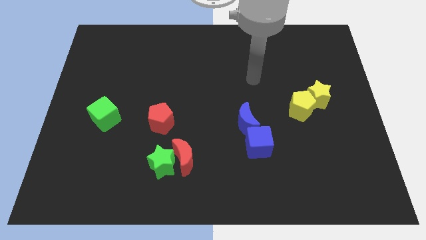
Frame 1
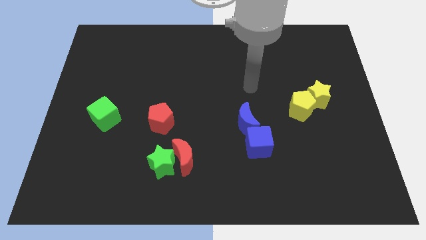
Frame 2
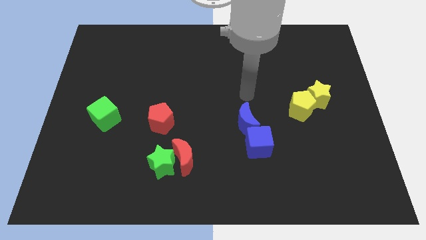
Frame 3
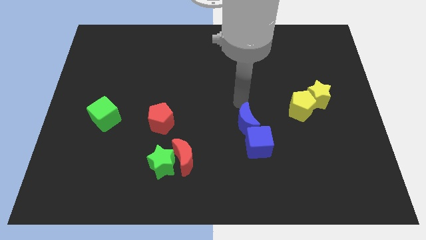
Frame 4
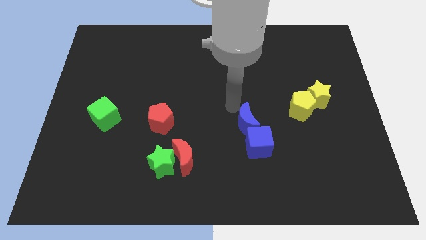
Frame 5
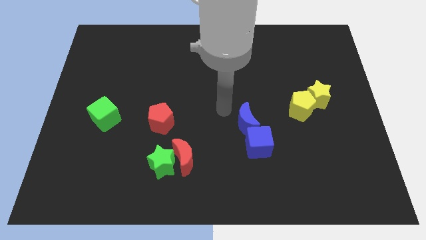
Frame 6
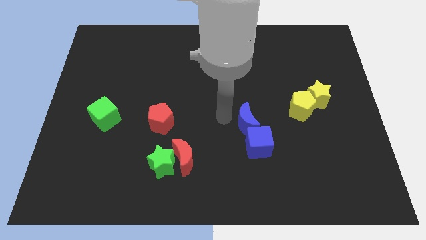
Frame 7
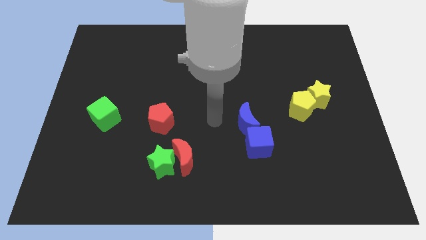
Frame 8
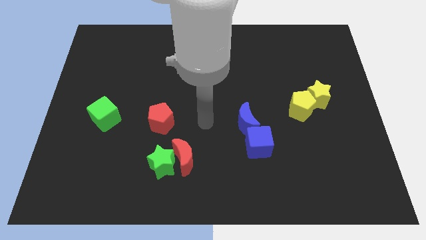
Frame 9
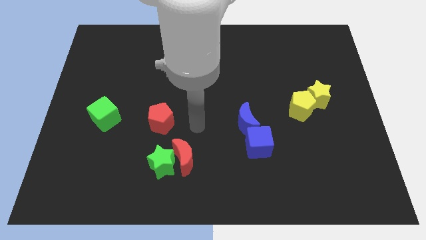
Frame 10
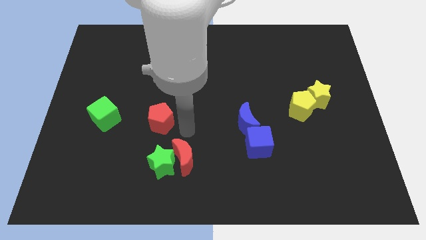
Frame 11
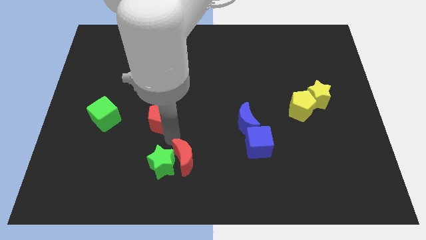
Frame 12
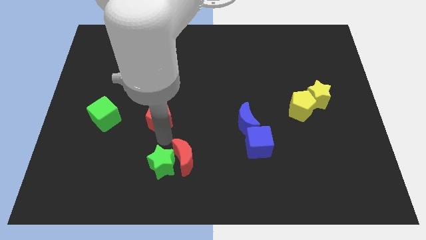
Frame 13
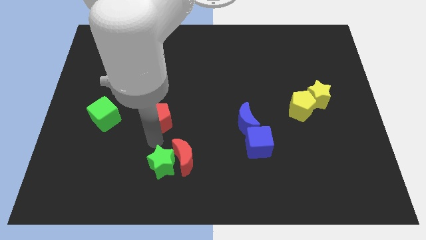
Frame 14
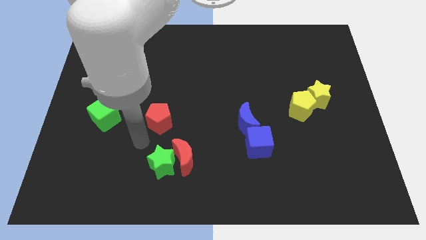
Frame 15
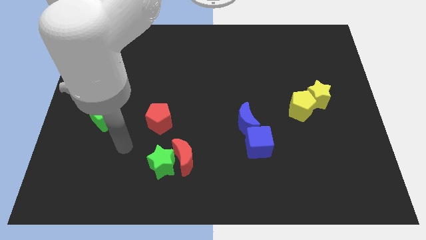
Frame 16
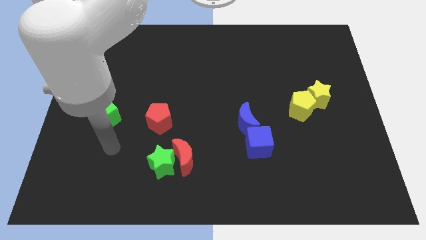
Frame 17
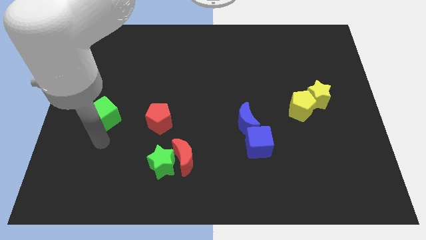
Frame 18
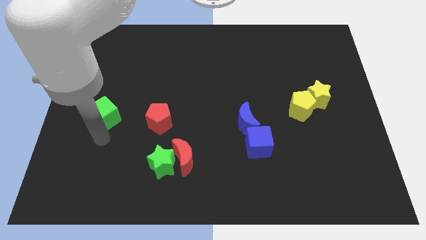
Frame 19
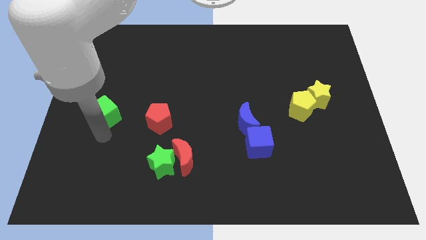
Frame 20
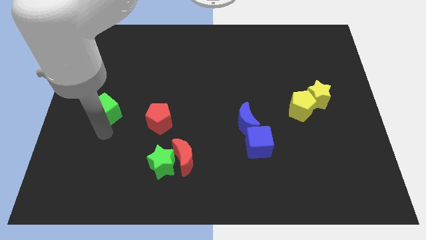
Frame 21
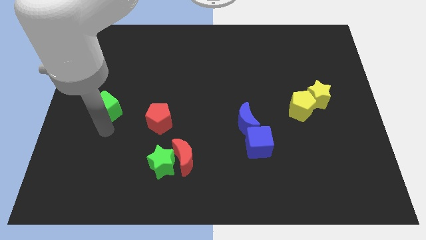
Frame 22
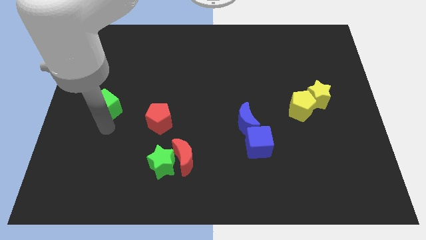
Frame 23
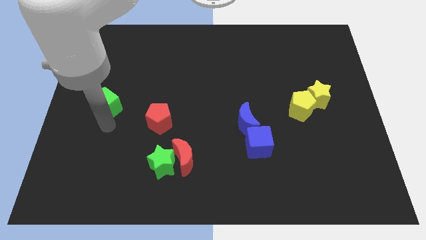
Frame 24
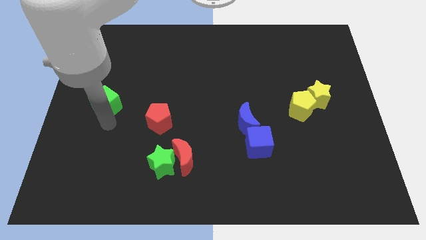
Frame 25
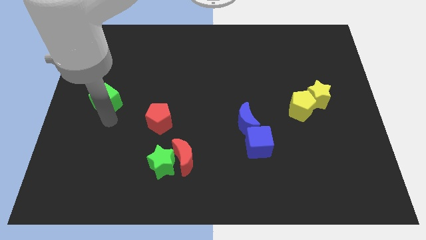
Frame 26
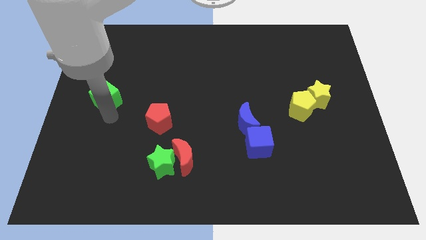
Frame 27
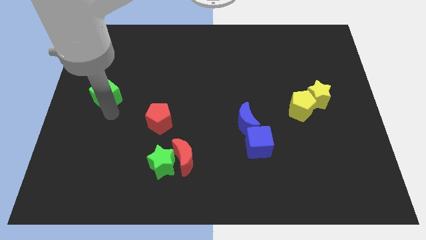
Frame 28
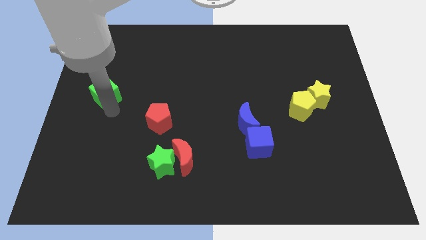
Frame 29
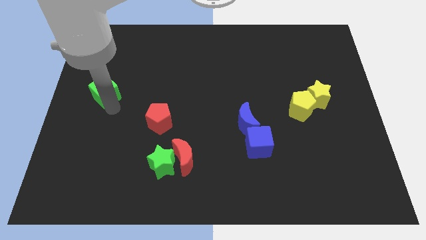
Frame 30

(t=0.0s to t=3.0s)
push the green cube a little bit up

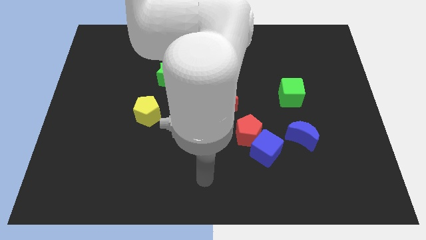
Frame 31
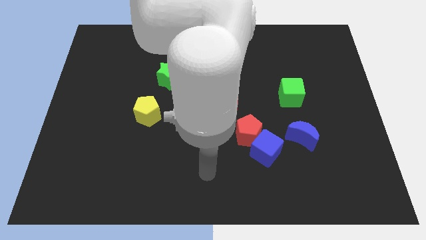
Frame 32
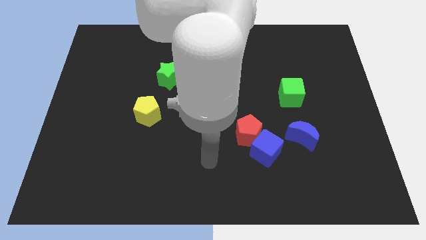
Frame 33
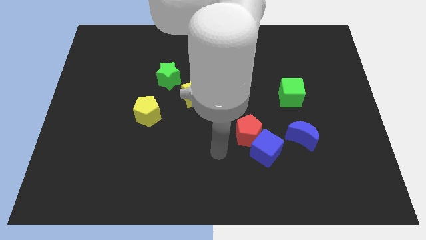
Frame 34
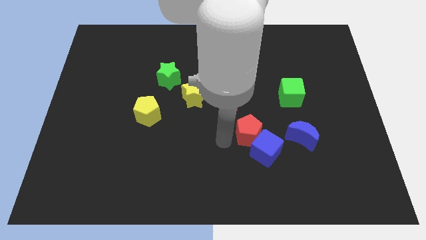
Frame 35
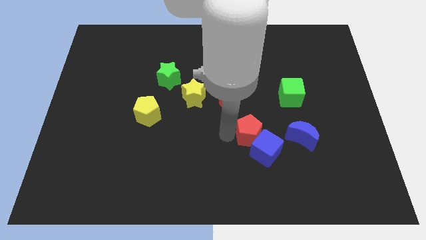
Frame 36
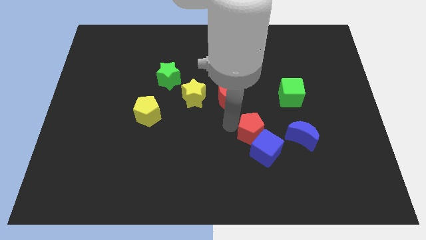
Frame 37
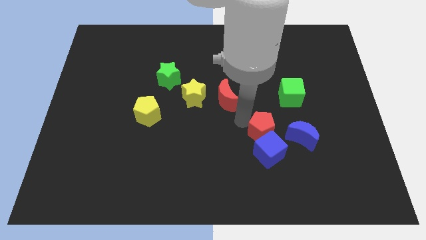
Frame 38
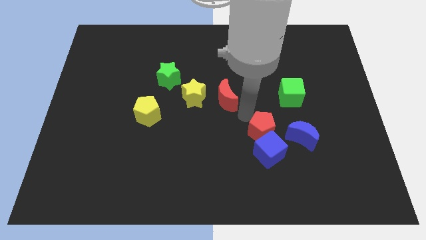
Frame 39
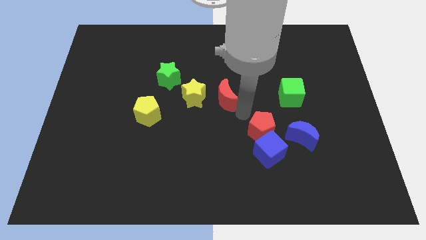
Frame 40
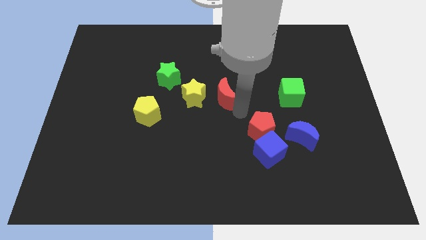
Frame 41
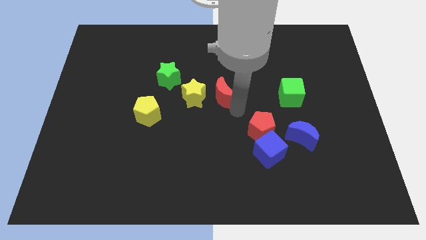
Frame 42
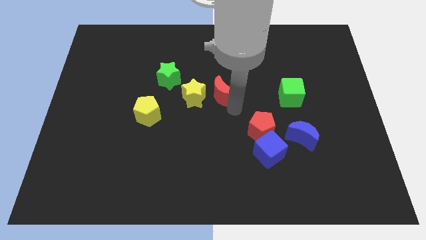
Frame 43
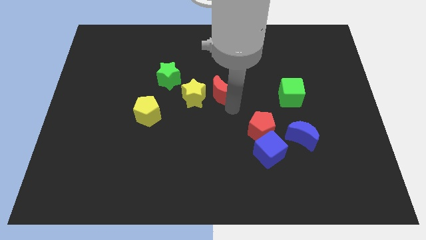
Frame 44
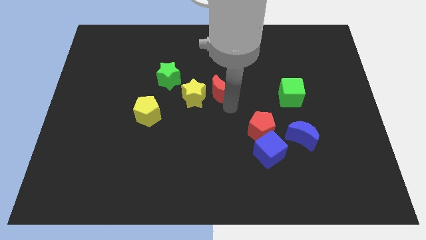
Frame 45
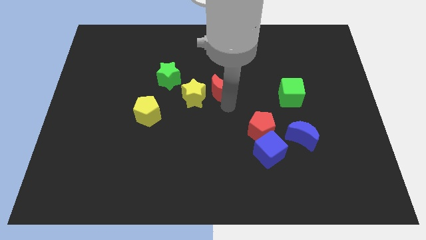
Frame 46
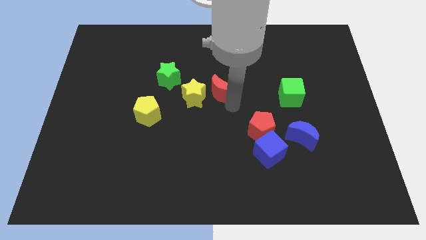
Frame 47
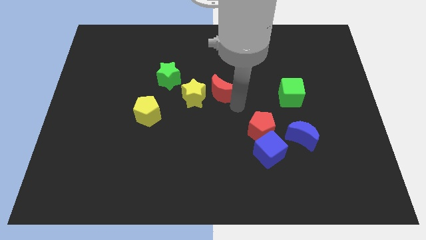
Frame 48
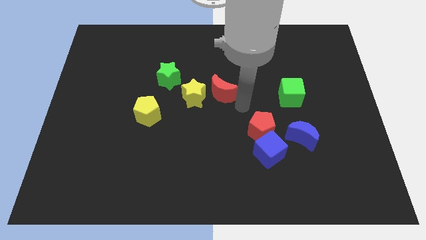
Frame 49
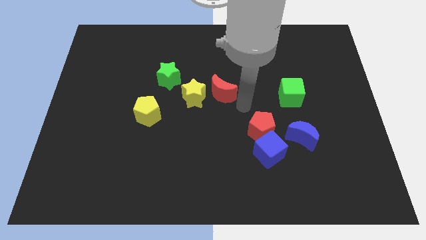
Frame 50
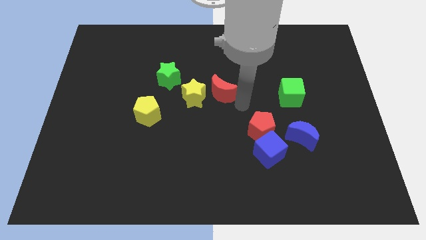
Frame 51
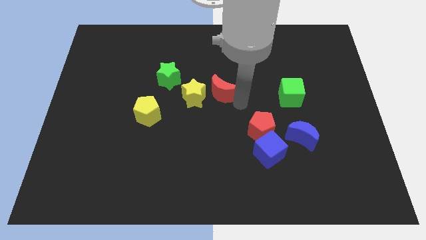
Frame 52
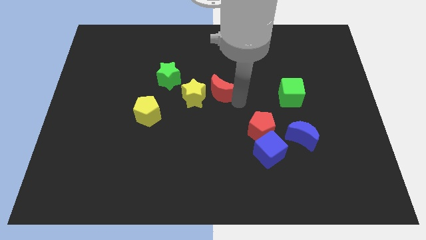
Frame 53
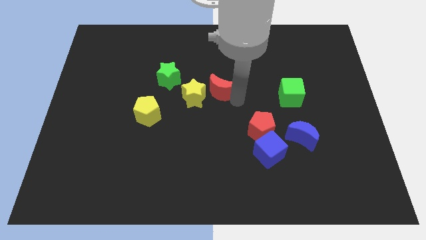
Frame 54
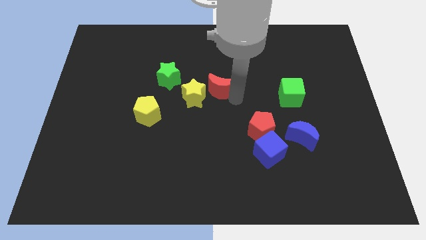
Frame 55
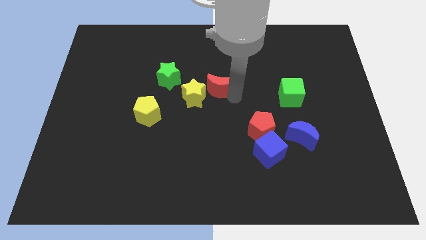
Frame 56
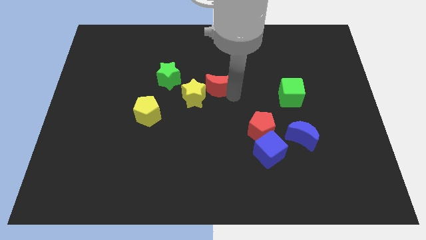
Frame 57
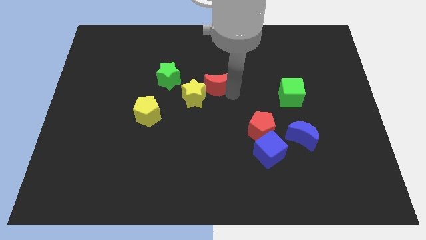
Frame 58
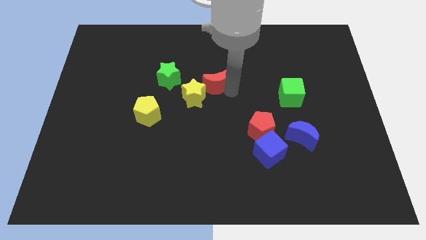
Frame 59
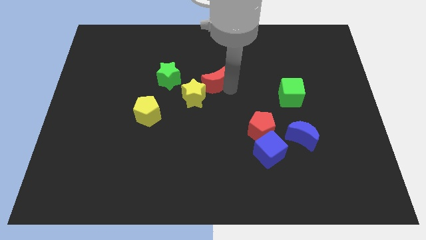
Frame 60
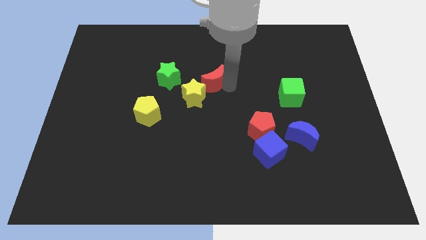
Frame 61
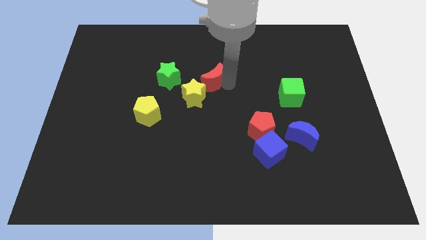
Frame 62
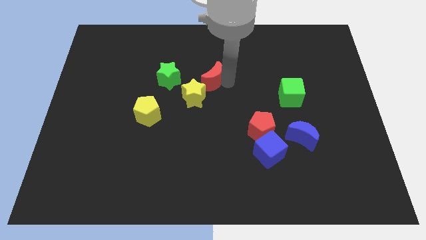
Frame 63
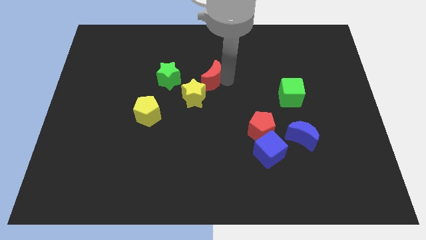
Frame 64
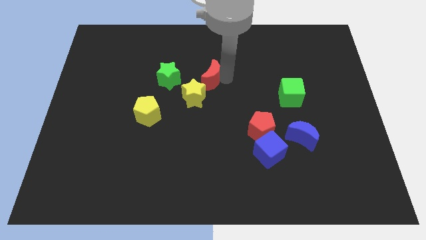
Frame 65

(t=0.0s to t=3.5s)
push the red moon up and to the left diagonally slightly

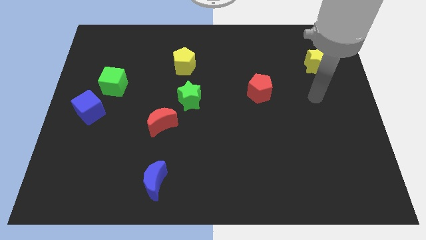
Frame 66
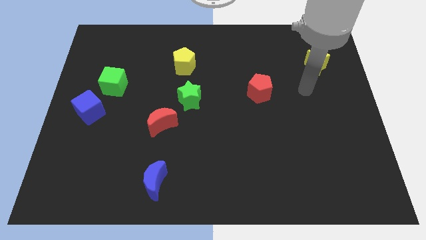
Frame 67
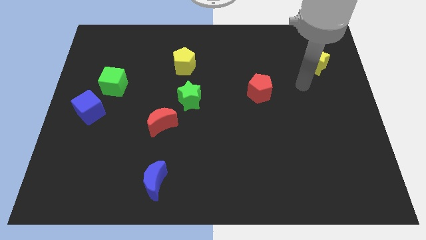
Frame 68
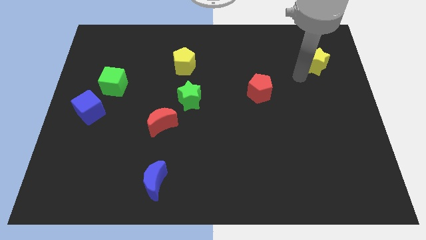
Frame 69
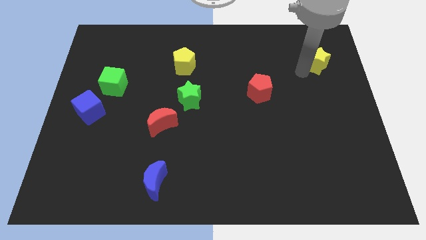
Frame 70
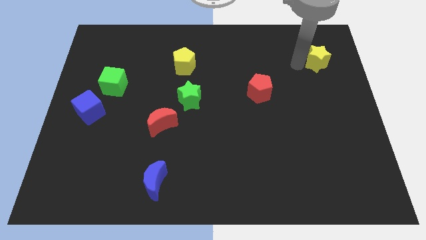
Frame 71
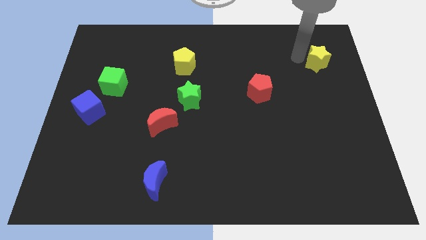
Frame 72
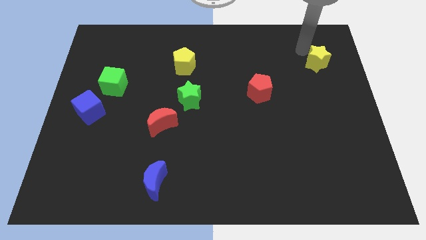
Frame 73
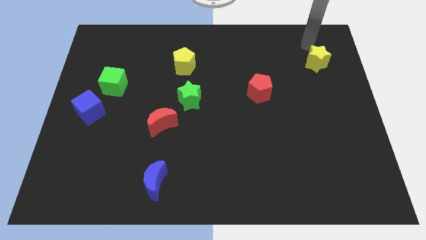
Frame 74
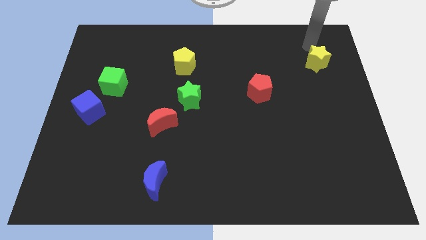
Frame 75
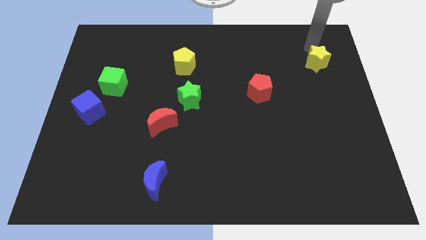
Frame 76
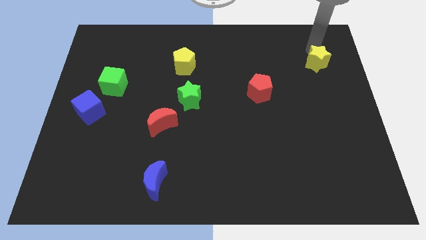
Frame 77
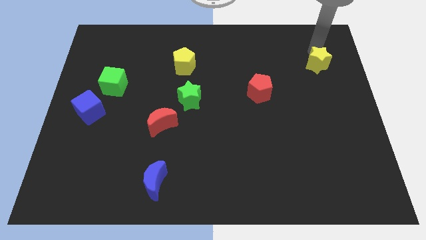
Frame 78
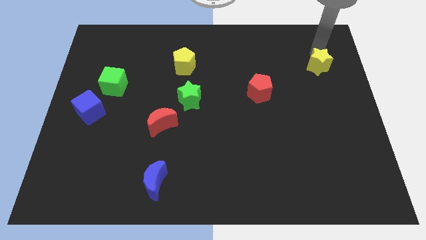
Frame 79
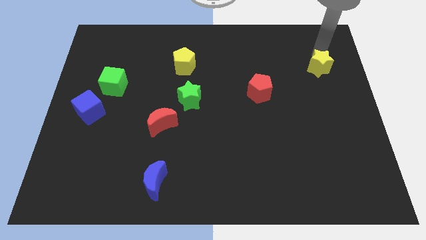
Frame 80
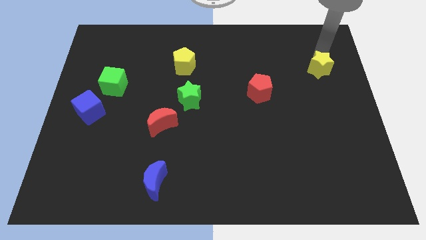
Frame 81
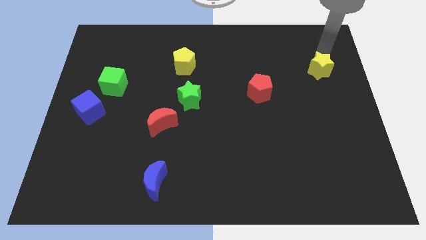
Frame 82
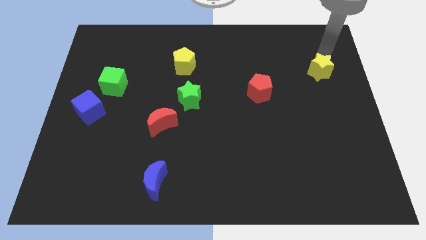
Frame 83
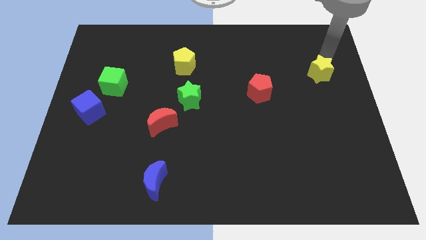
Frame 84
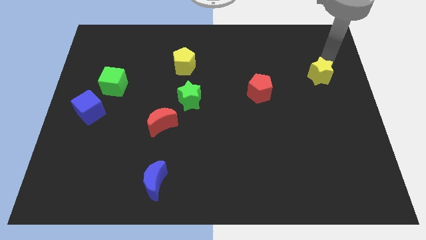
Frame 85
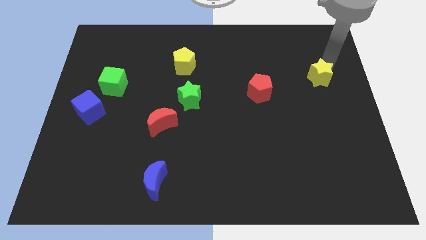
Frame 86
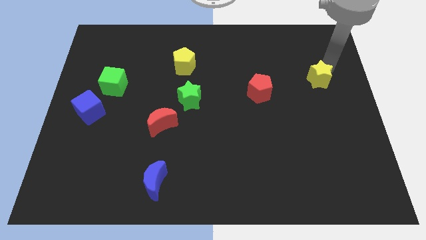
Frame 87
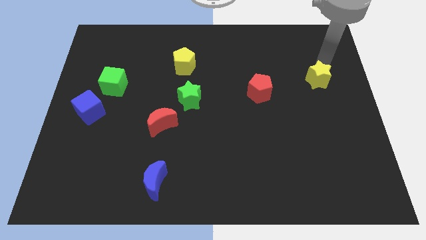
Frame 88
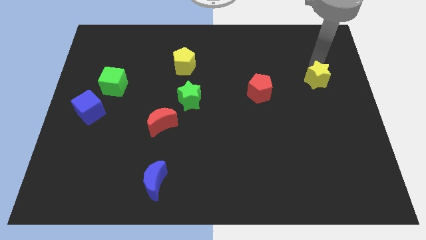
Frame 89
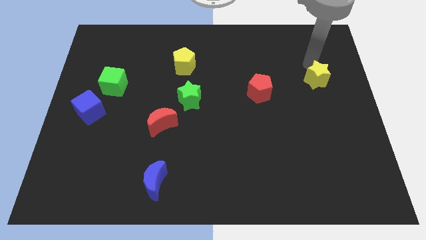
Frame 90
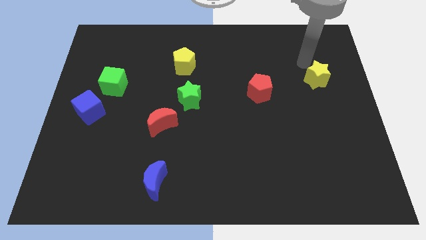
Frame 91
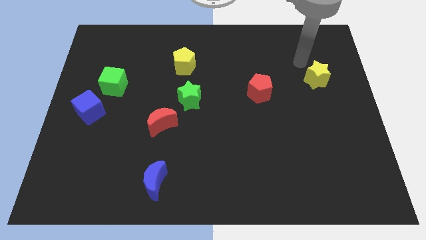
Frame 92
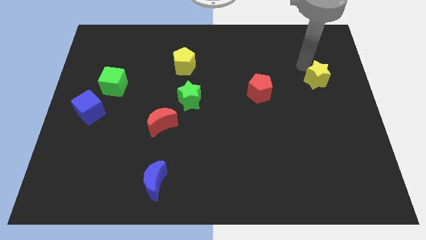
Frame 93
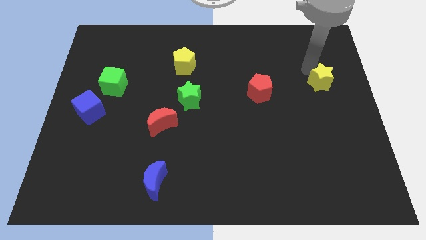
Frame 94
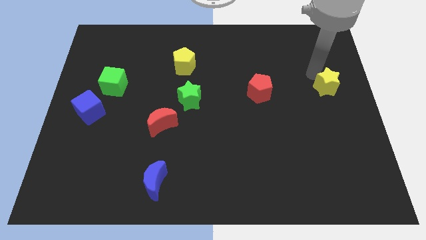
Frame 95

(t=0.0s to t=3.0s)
move the yellow star downwards a little bit
